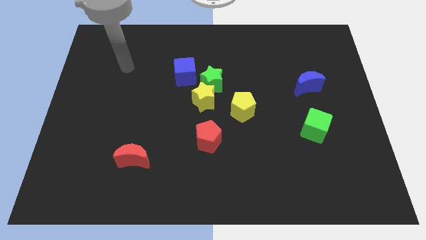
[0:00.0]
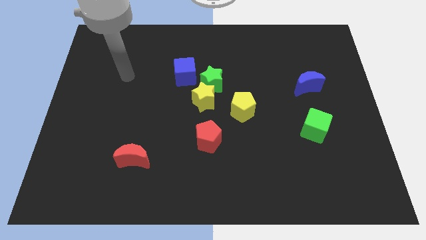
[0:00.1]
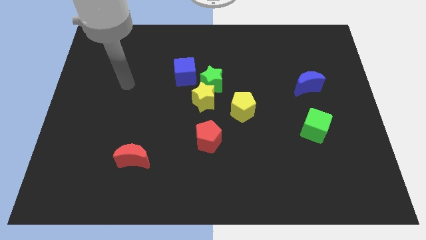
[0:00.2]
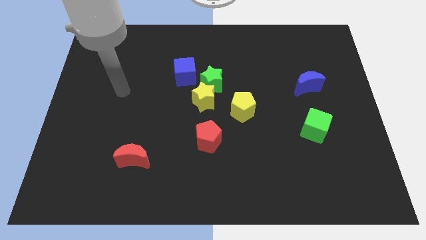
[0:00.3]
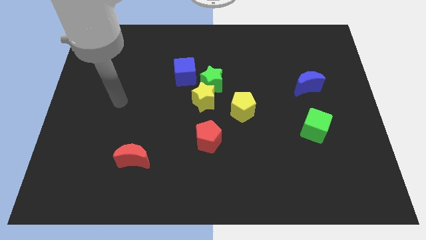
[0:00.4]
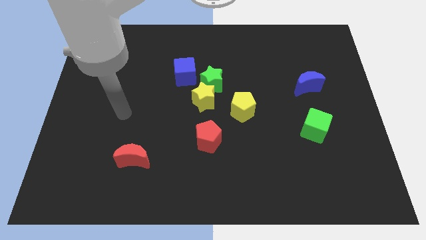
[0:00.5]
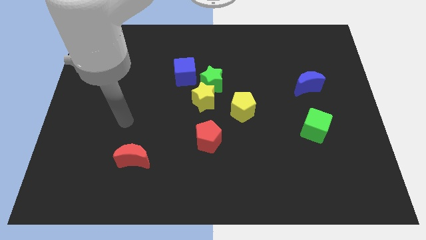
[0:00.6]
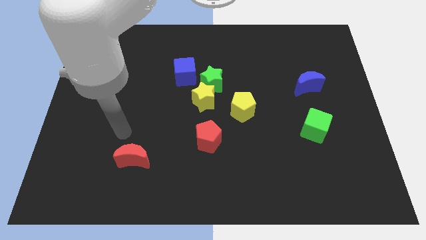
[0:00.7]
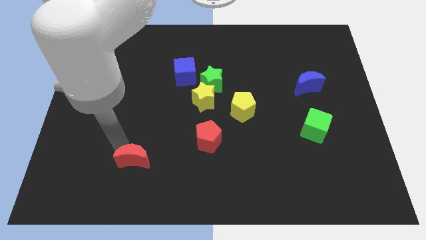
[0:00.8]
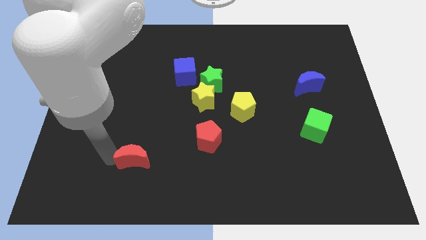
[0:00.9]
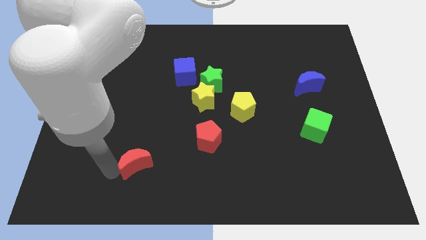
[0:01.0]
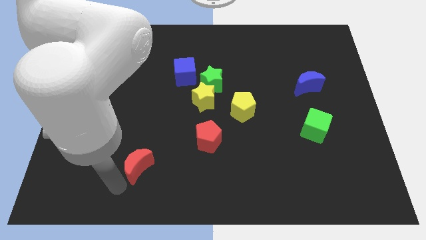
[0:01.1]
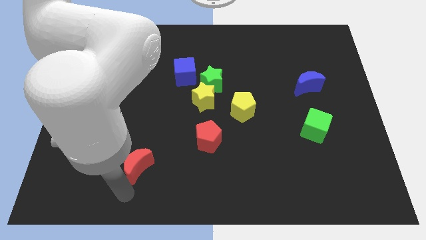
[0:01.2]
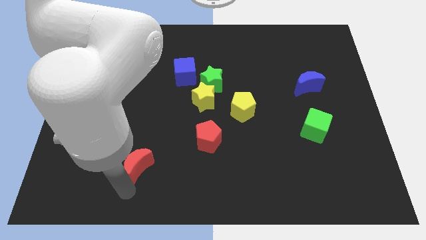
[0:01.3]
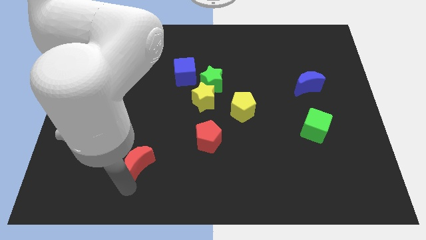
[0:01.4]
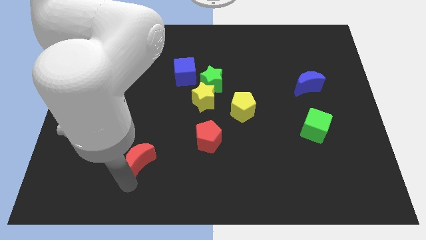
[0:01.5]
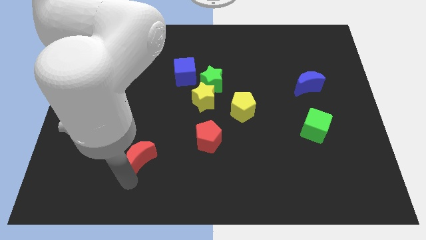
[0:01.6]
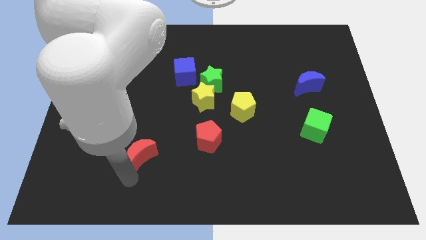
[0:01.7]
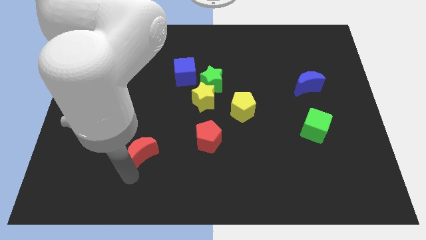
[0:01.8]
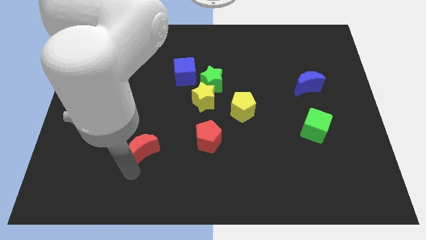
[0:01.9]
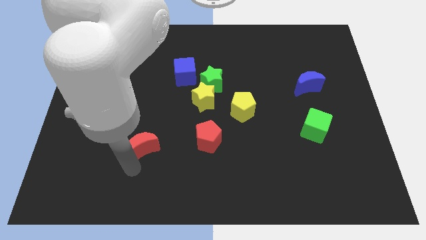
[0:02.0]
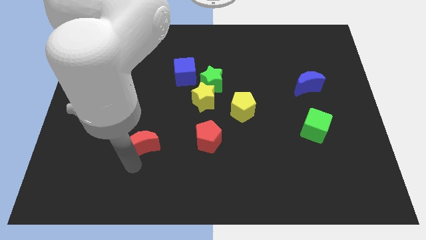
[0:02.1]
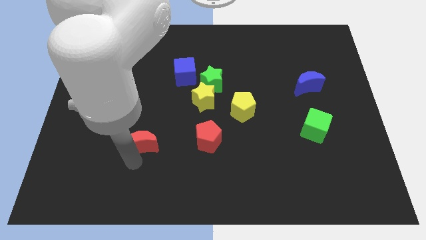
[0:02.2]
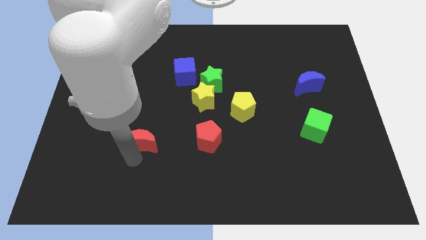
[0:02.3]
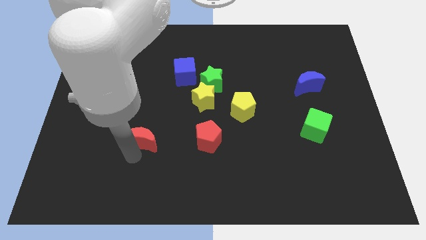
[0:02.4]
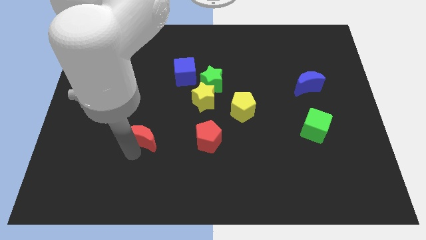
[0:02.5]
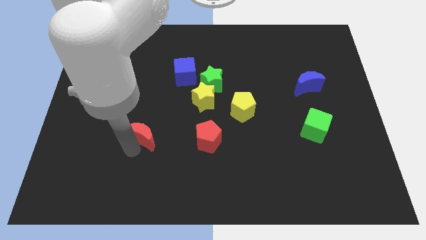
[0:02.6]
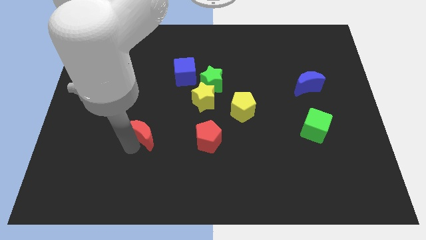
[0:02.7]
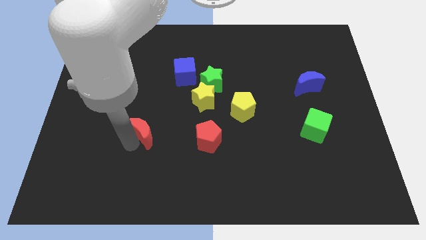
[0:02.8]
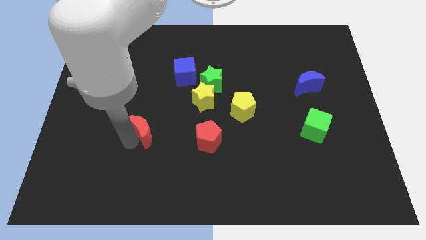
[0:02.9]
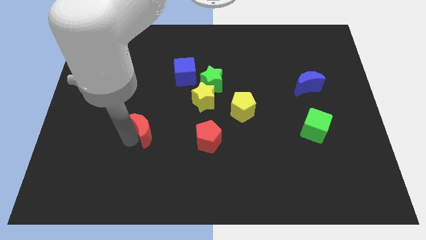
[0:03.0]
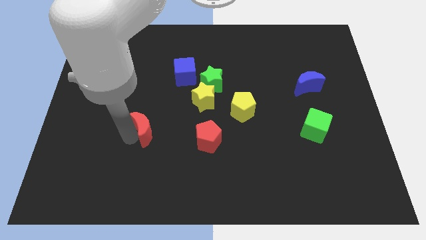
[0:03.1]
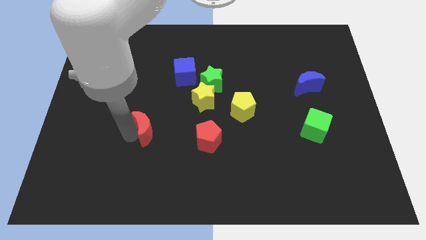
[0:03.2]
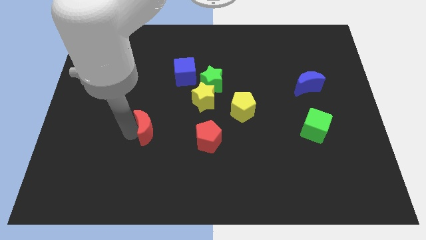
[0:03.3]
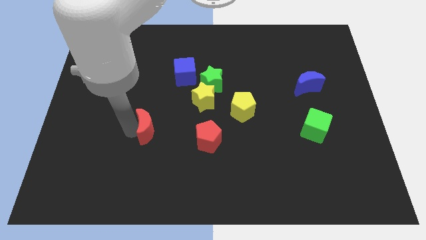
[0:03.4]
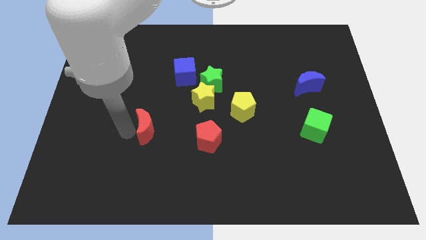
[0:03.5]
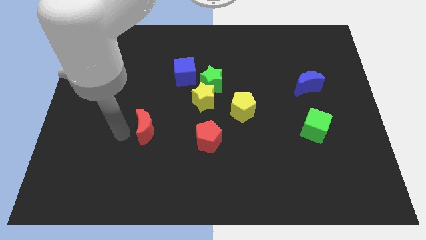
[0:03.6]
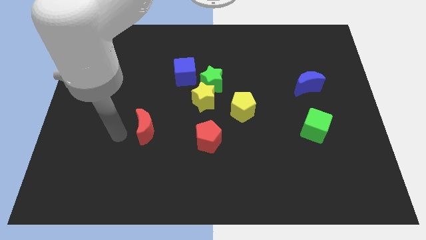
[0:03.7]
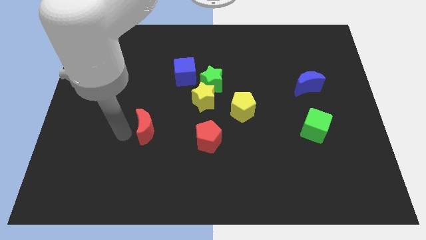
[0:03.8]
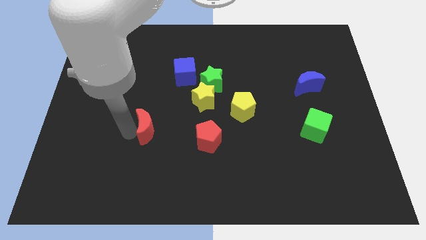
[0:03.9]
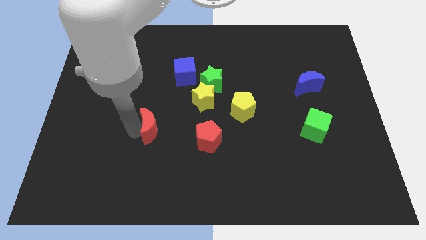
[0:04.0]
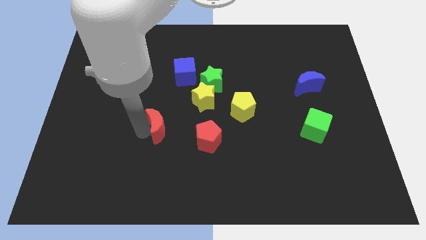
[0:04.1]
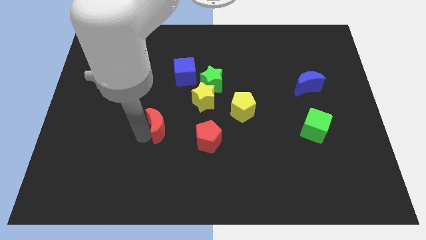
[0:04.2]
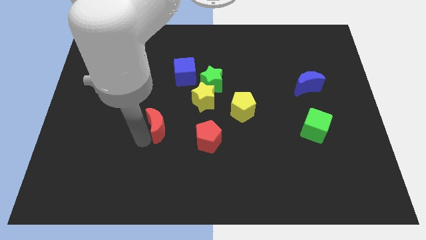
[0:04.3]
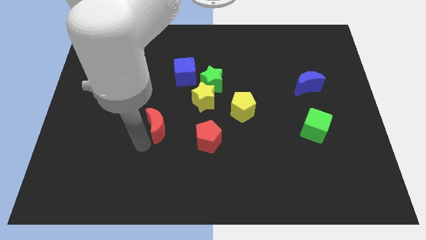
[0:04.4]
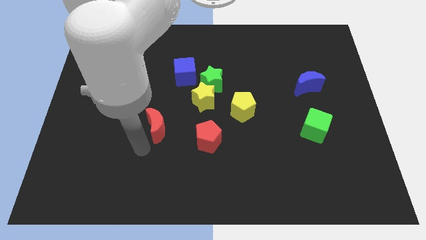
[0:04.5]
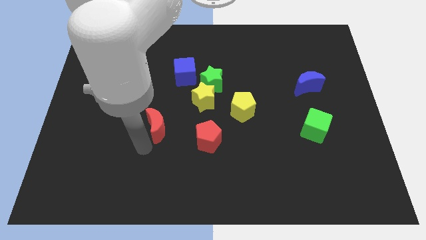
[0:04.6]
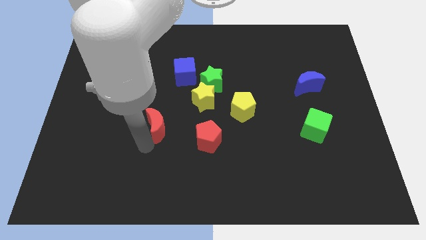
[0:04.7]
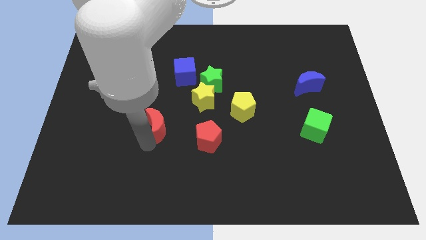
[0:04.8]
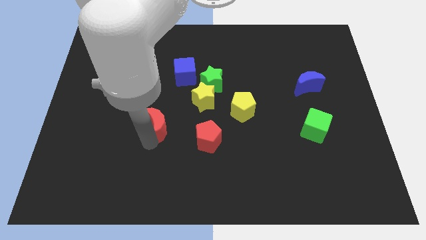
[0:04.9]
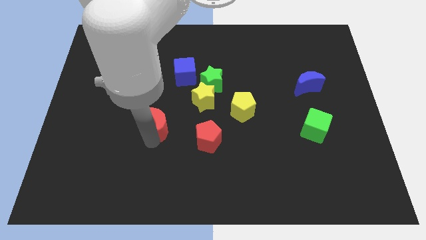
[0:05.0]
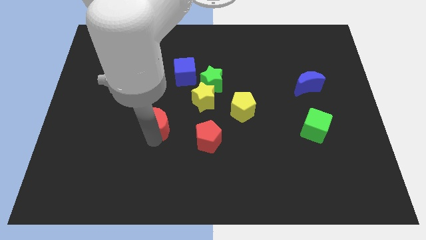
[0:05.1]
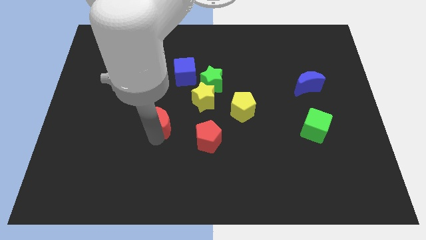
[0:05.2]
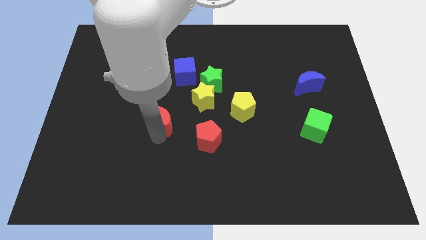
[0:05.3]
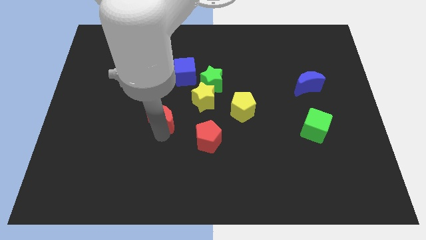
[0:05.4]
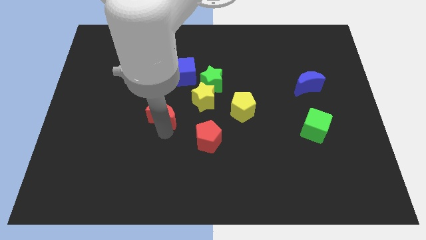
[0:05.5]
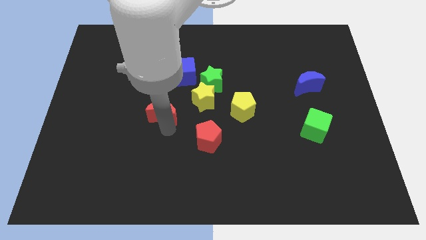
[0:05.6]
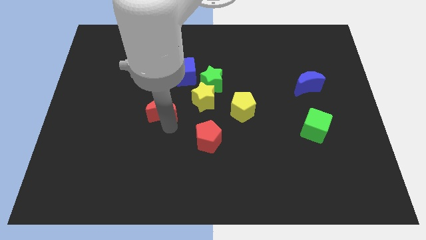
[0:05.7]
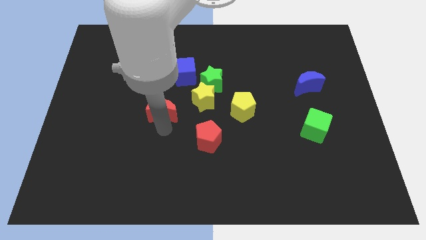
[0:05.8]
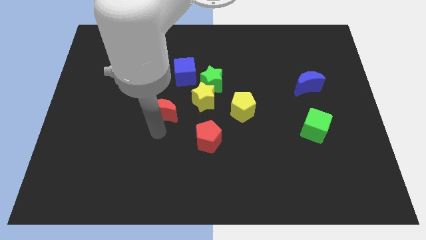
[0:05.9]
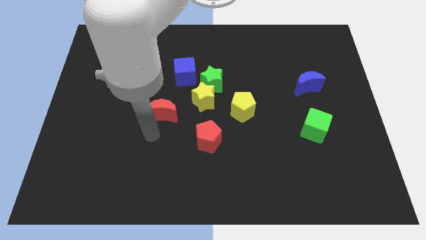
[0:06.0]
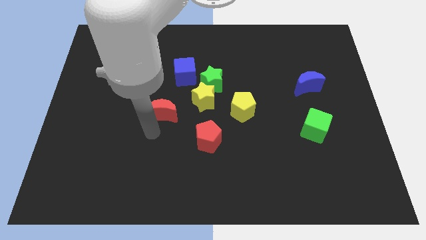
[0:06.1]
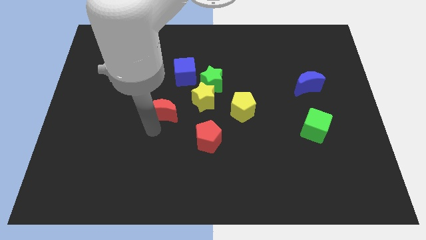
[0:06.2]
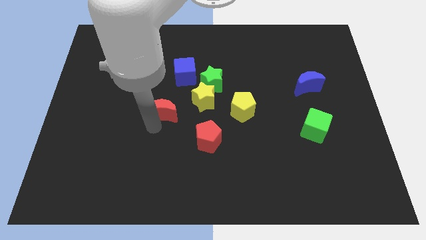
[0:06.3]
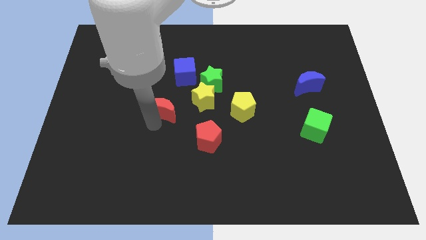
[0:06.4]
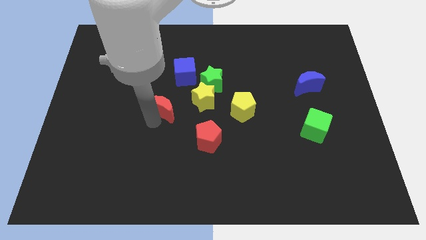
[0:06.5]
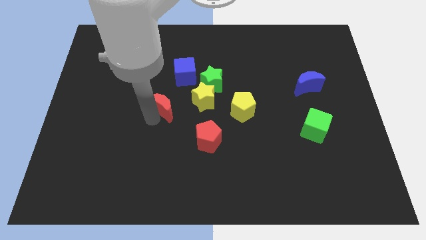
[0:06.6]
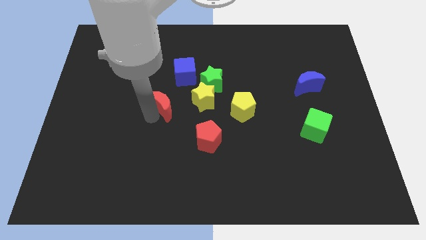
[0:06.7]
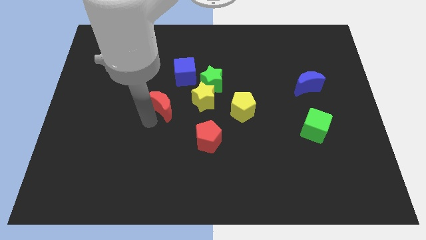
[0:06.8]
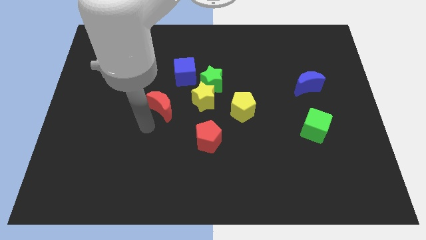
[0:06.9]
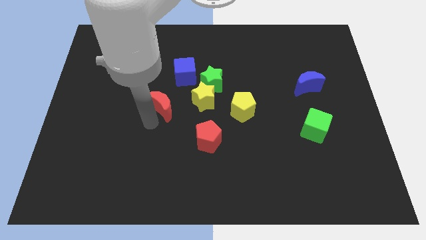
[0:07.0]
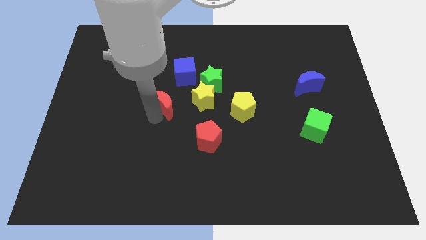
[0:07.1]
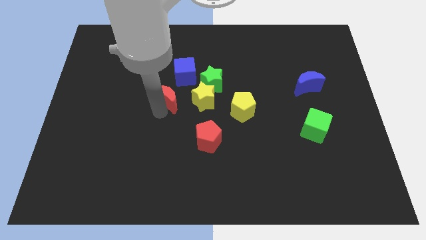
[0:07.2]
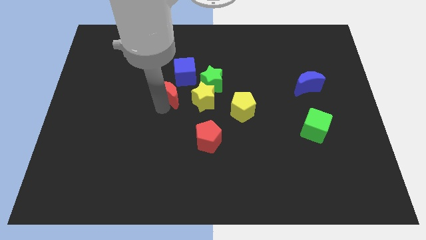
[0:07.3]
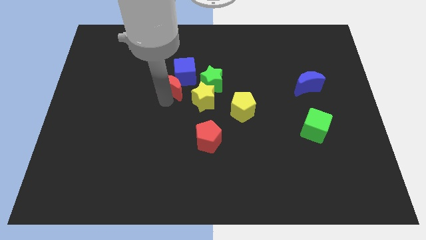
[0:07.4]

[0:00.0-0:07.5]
put the red moon next to the blue cube
